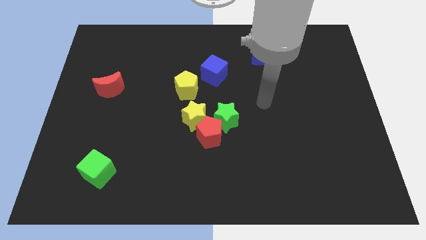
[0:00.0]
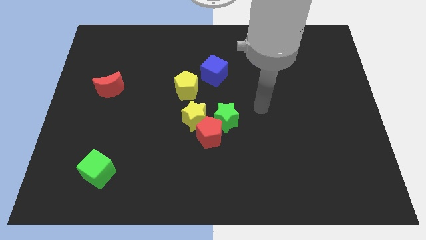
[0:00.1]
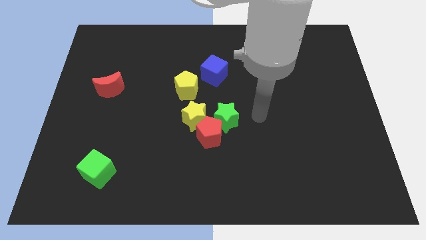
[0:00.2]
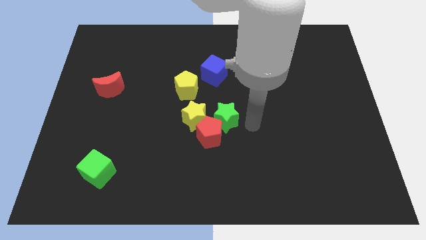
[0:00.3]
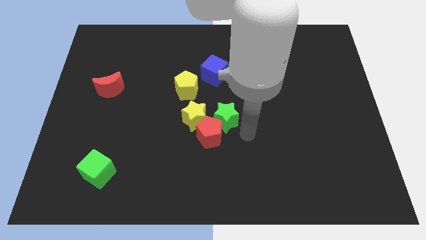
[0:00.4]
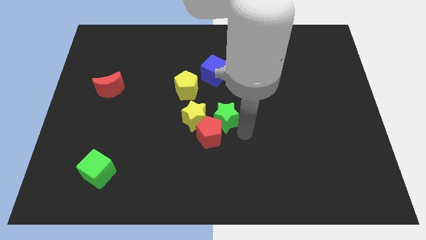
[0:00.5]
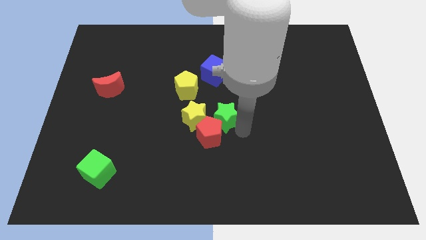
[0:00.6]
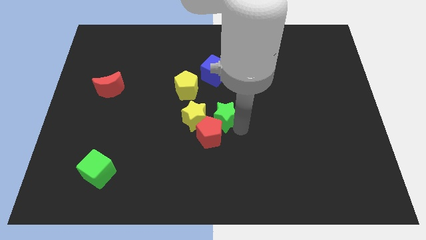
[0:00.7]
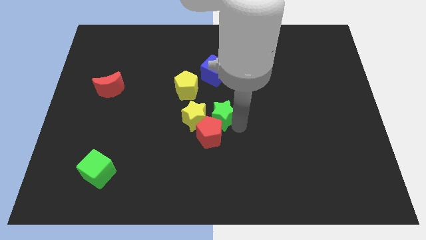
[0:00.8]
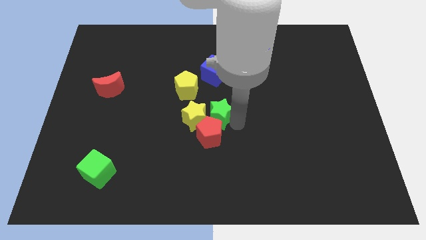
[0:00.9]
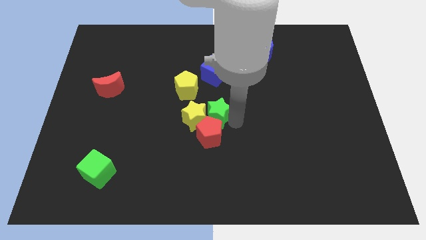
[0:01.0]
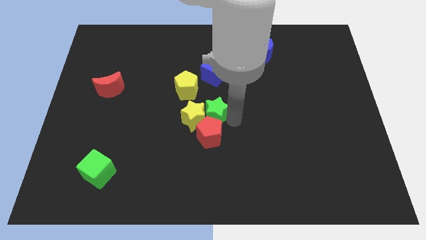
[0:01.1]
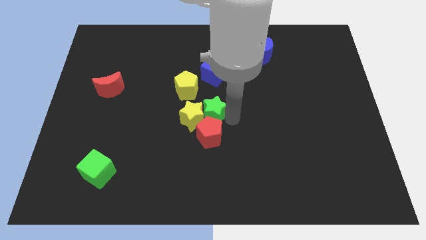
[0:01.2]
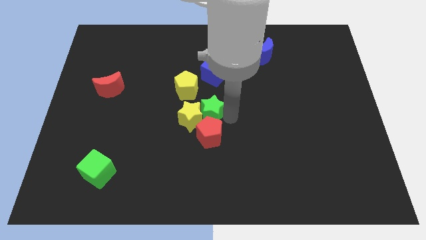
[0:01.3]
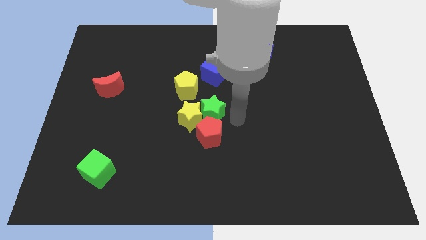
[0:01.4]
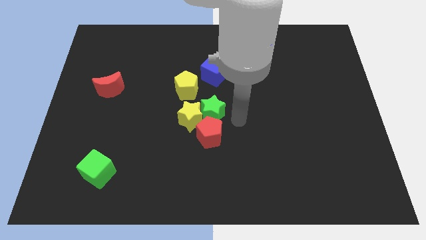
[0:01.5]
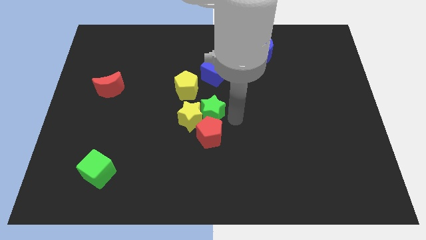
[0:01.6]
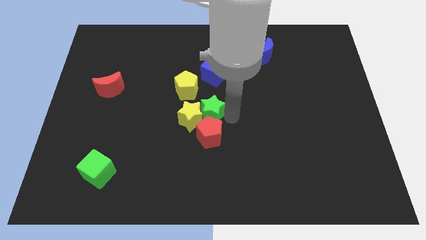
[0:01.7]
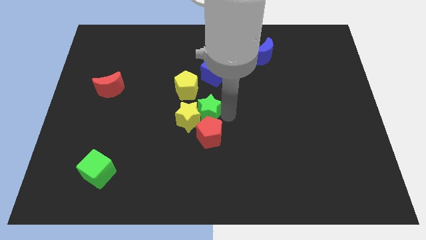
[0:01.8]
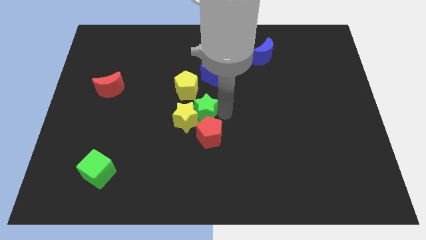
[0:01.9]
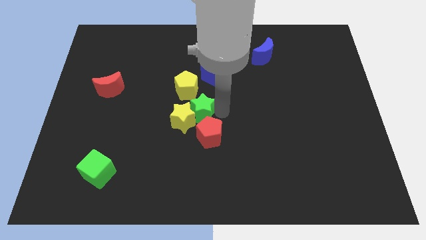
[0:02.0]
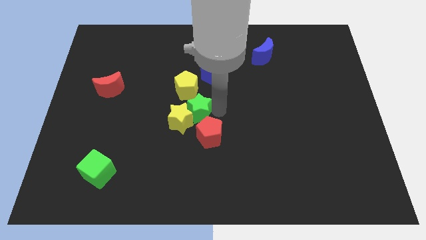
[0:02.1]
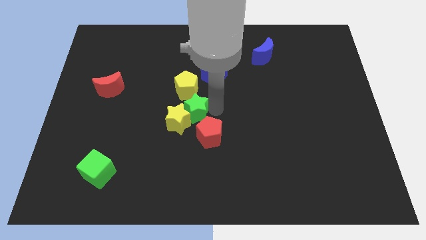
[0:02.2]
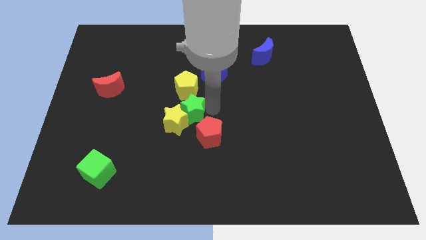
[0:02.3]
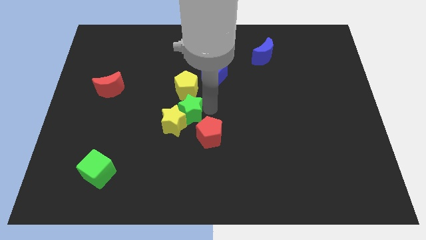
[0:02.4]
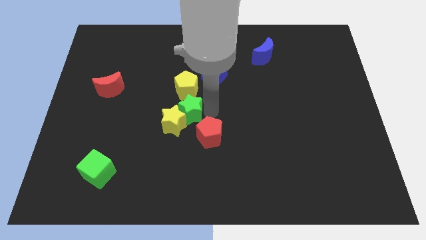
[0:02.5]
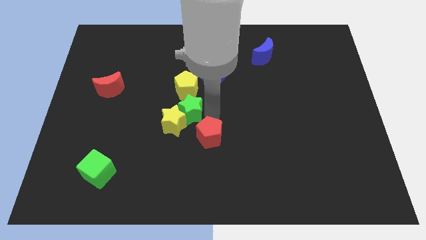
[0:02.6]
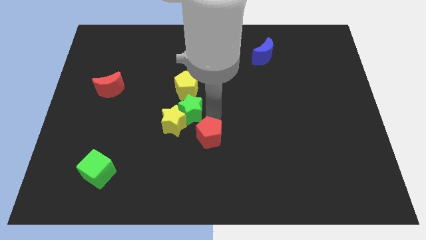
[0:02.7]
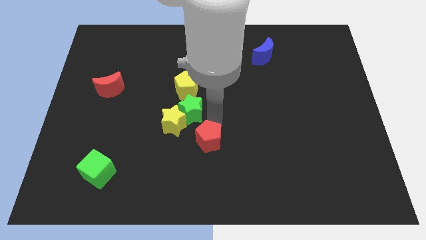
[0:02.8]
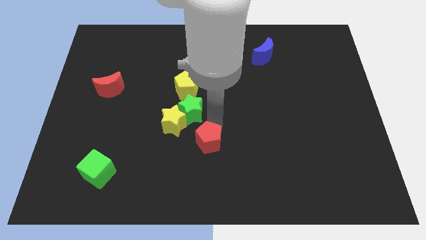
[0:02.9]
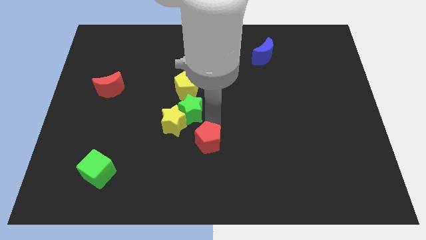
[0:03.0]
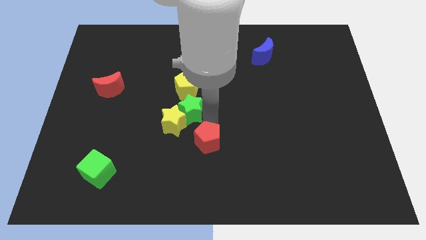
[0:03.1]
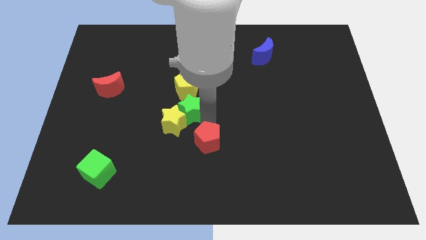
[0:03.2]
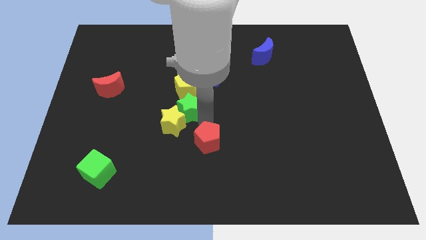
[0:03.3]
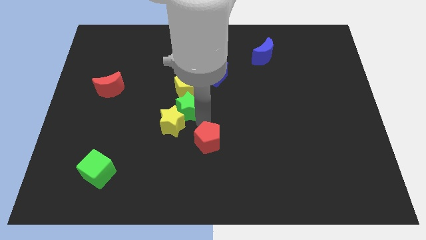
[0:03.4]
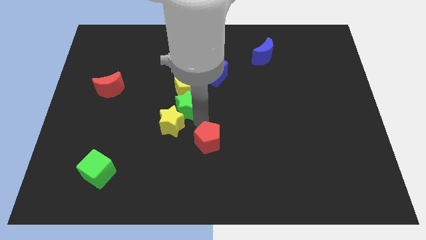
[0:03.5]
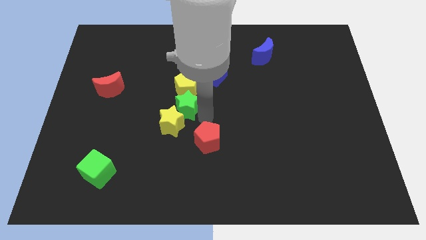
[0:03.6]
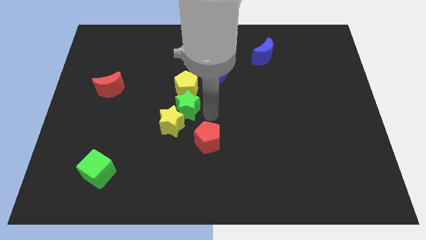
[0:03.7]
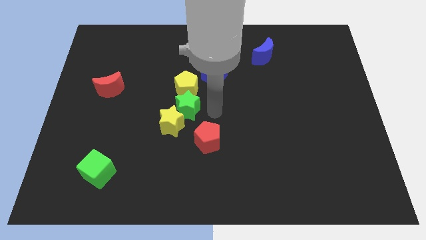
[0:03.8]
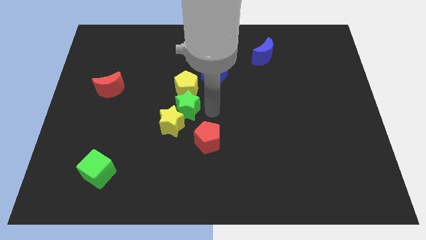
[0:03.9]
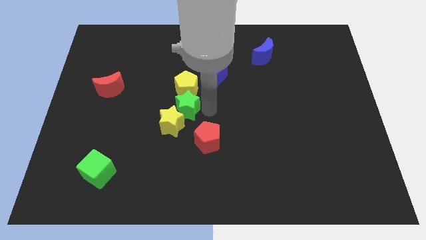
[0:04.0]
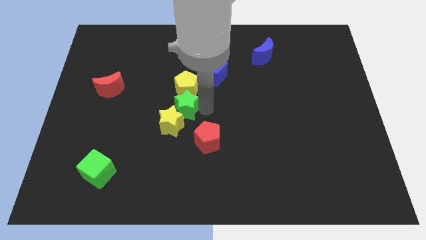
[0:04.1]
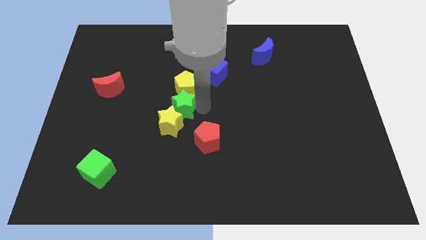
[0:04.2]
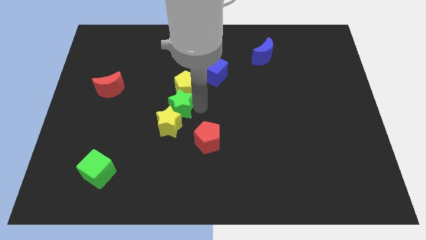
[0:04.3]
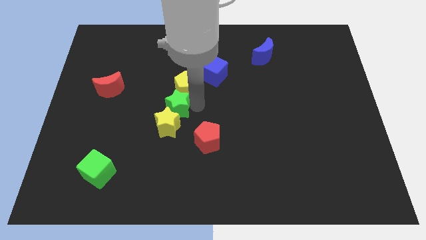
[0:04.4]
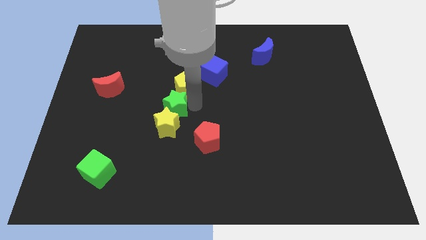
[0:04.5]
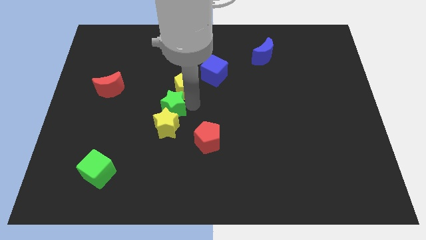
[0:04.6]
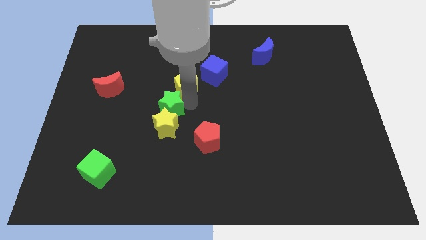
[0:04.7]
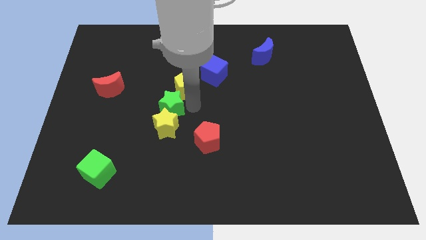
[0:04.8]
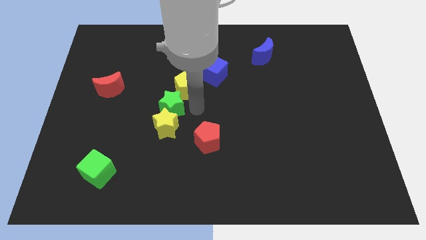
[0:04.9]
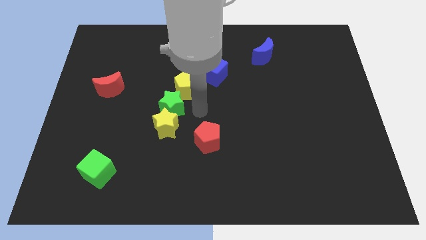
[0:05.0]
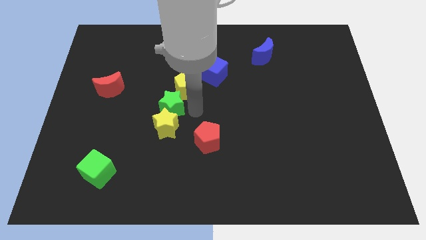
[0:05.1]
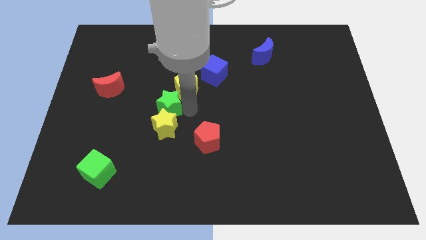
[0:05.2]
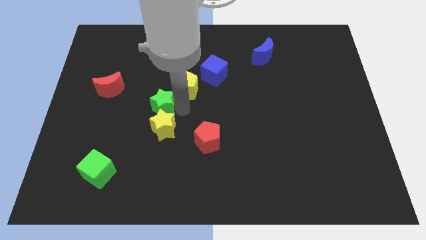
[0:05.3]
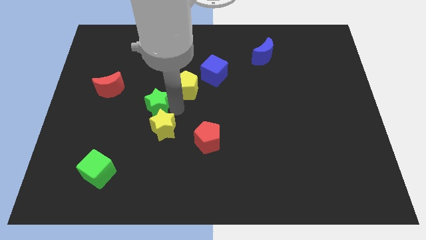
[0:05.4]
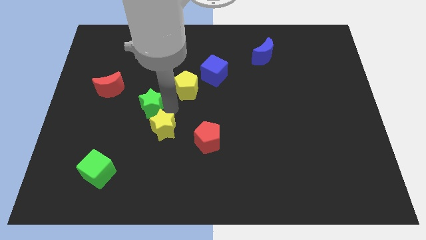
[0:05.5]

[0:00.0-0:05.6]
put the green star to the bottom right of the red moon
